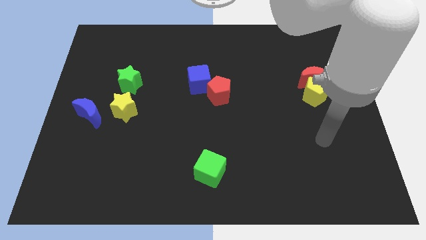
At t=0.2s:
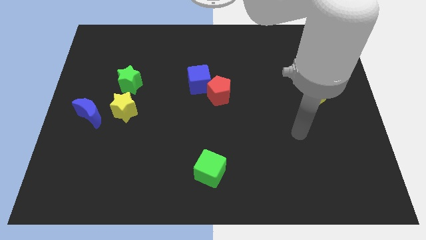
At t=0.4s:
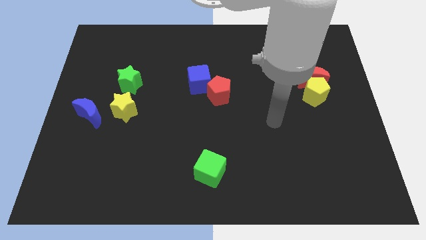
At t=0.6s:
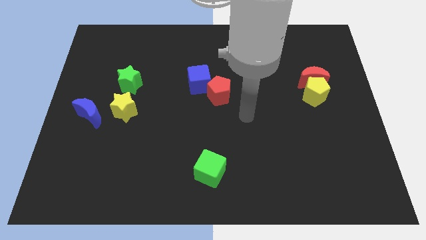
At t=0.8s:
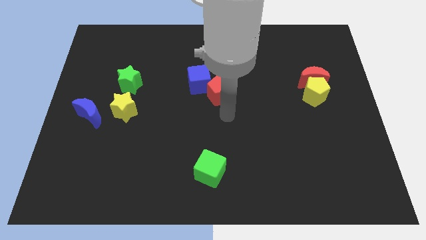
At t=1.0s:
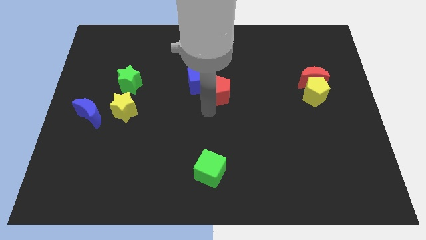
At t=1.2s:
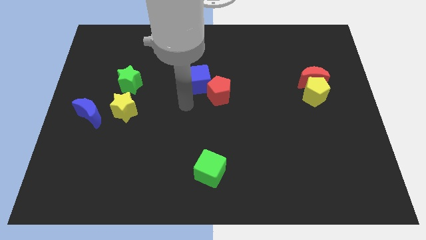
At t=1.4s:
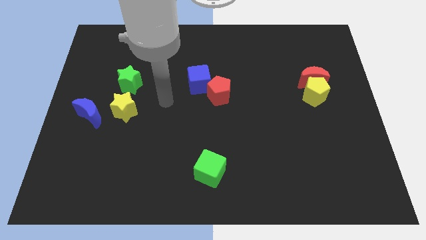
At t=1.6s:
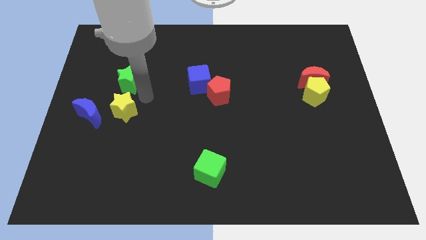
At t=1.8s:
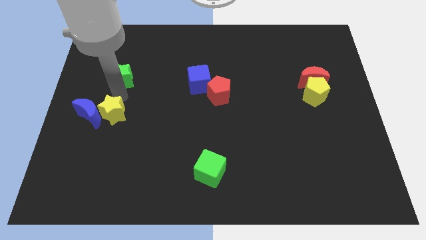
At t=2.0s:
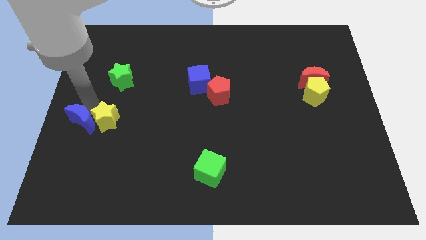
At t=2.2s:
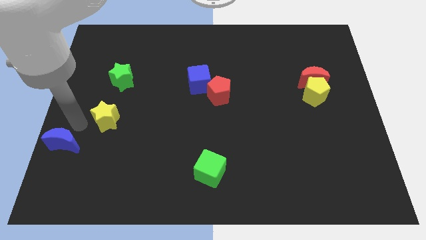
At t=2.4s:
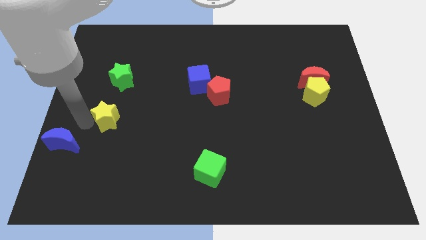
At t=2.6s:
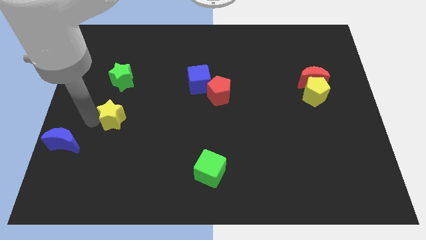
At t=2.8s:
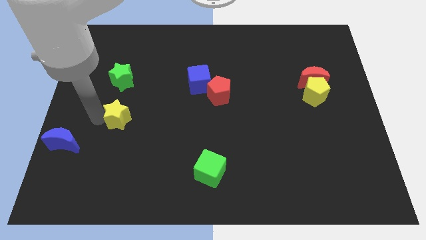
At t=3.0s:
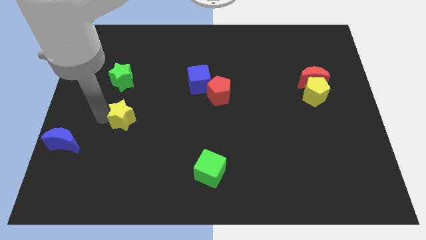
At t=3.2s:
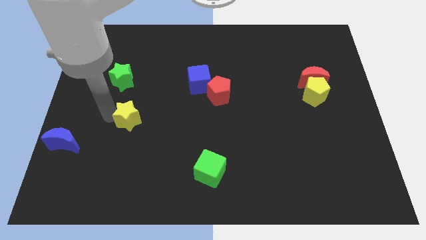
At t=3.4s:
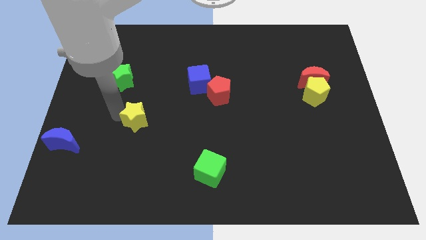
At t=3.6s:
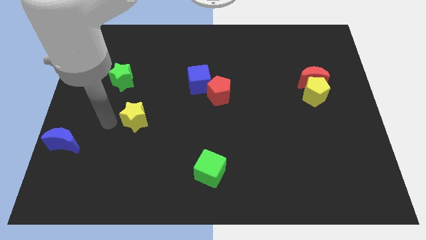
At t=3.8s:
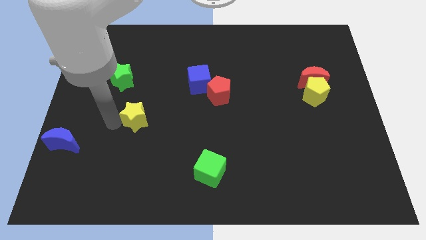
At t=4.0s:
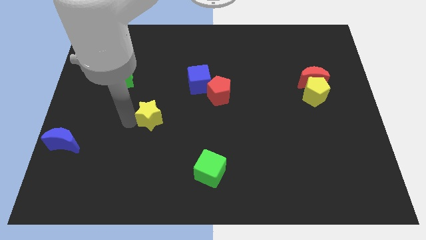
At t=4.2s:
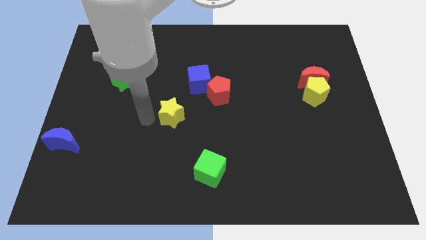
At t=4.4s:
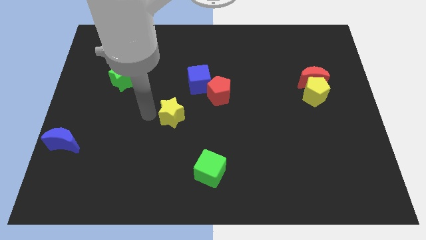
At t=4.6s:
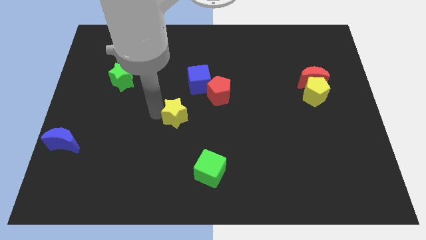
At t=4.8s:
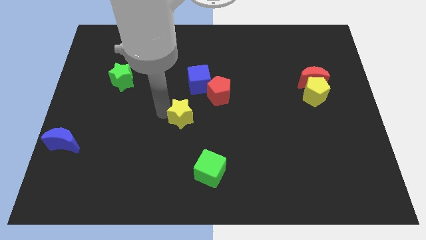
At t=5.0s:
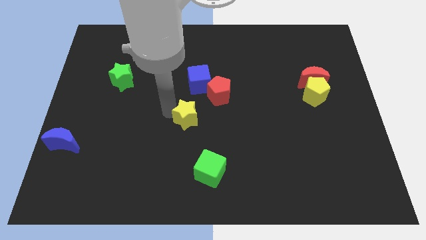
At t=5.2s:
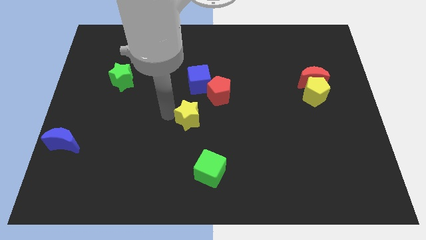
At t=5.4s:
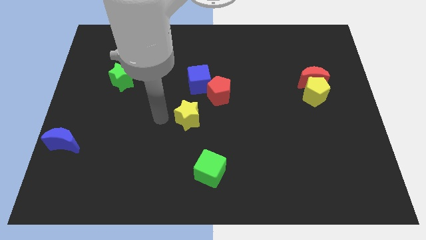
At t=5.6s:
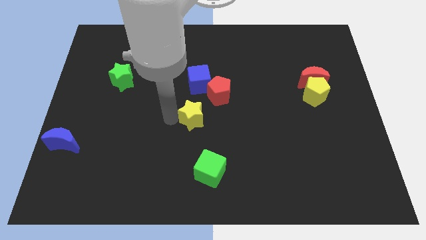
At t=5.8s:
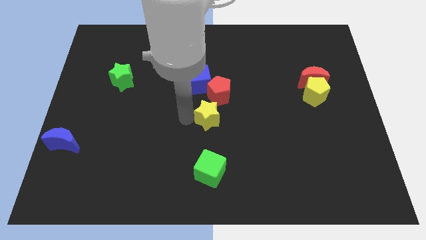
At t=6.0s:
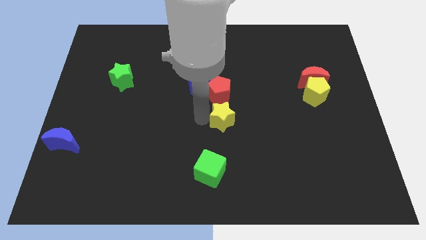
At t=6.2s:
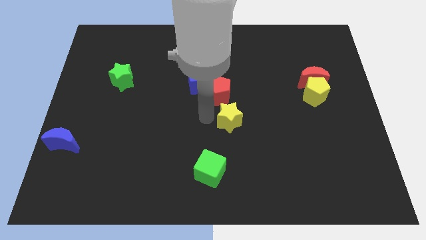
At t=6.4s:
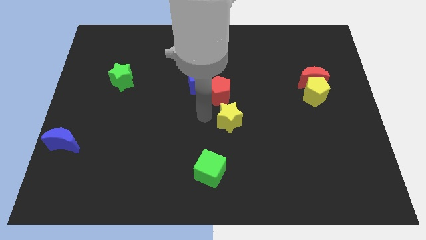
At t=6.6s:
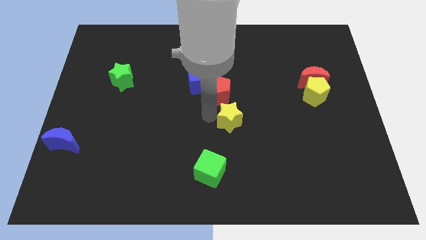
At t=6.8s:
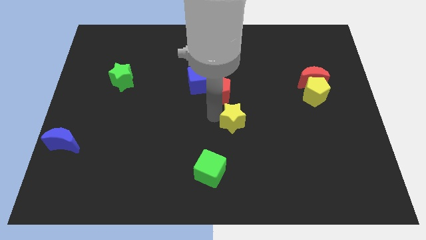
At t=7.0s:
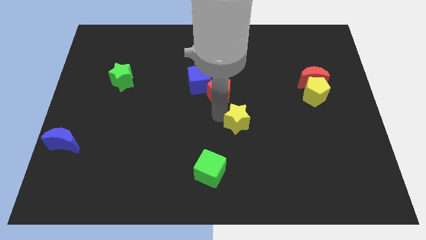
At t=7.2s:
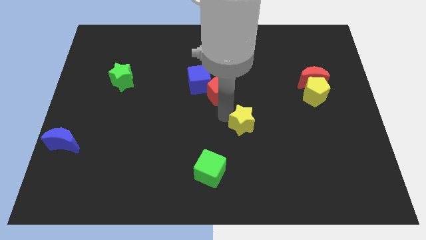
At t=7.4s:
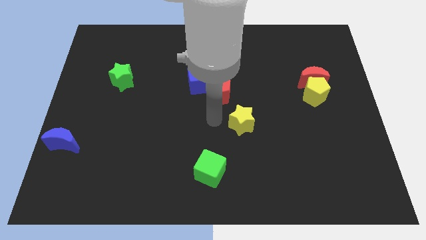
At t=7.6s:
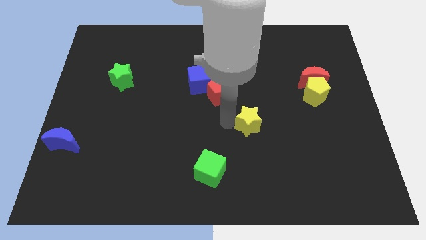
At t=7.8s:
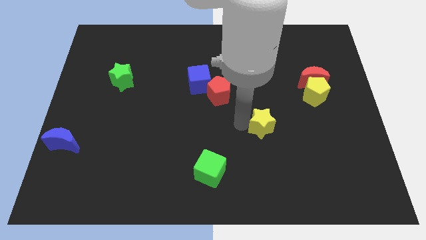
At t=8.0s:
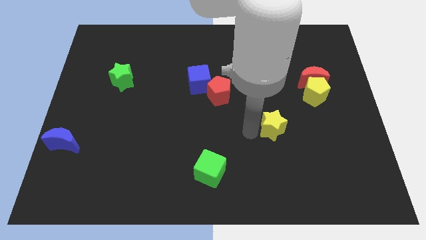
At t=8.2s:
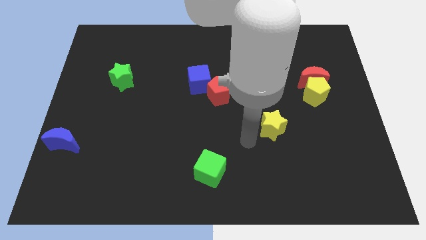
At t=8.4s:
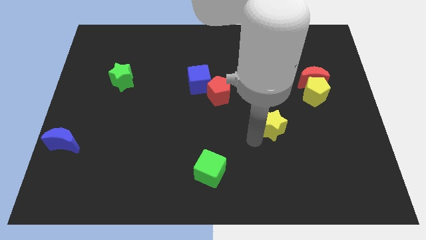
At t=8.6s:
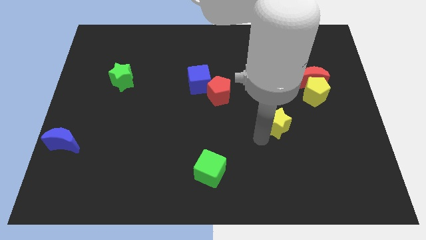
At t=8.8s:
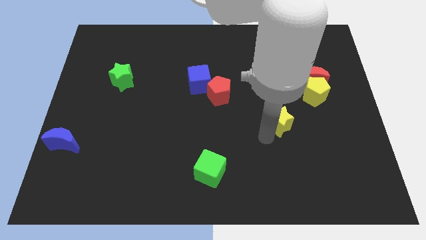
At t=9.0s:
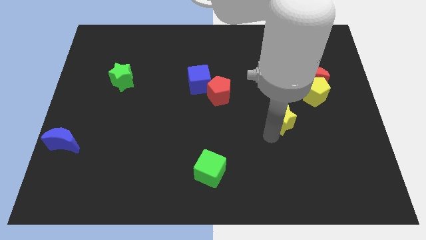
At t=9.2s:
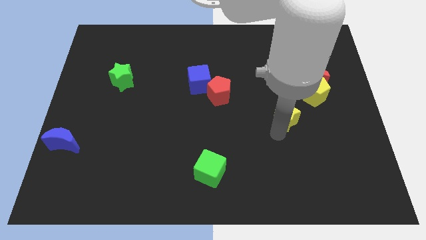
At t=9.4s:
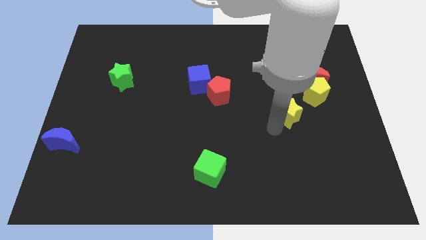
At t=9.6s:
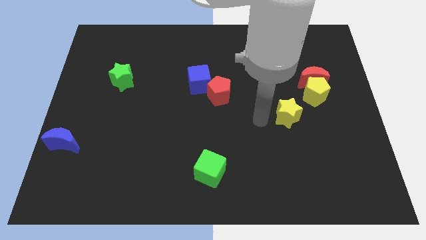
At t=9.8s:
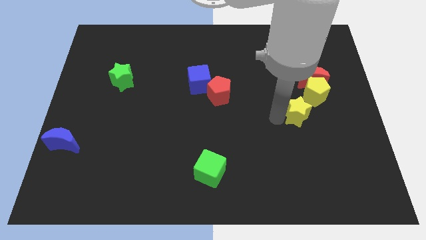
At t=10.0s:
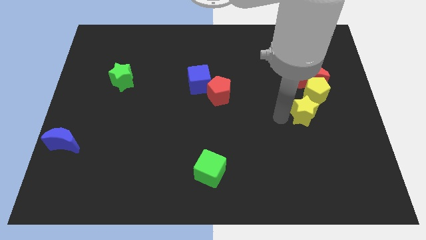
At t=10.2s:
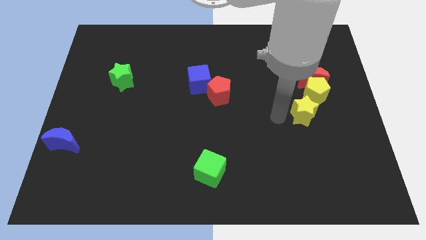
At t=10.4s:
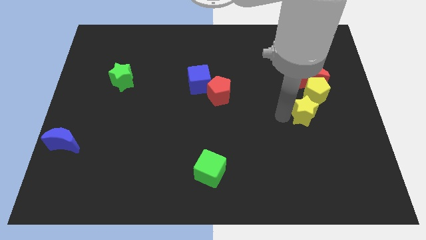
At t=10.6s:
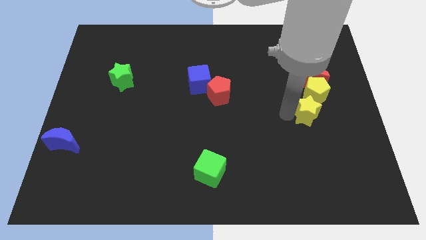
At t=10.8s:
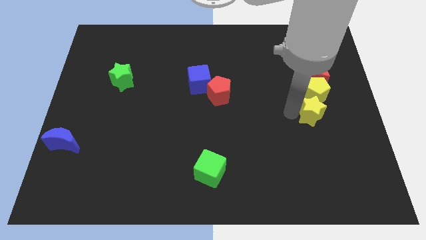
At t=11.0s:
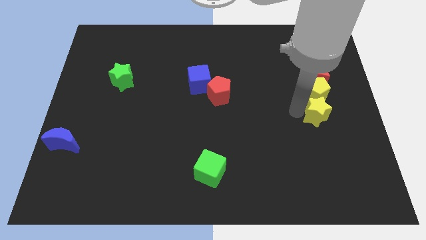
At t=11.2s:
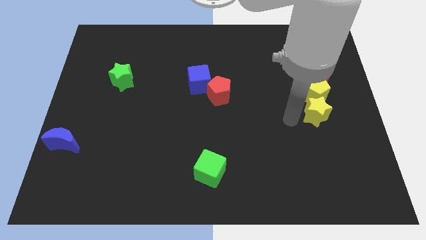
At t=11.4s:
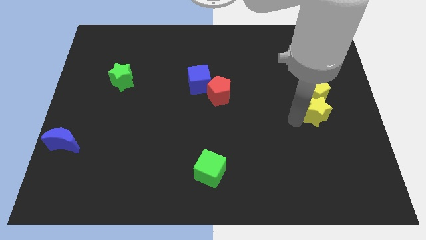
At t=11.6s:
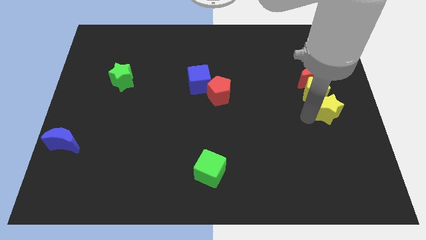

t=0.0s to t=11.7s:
slide the yellow star to the center right

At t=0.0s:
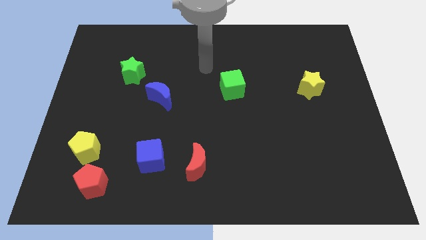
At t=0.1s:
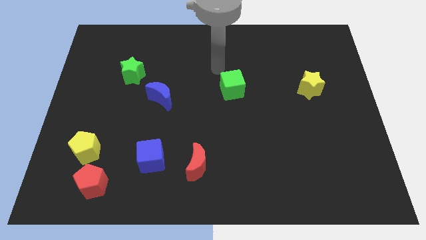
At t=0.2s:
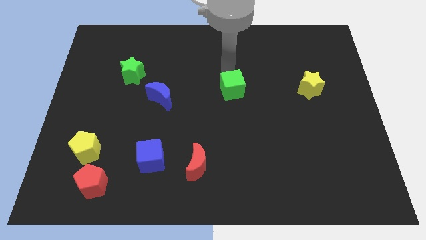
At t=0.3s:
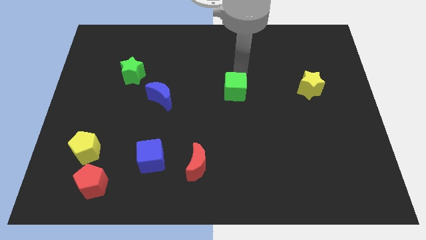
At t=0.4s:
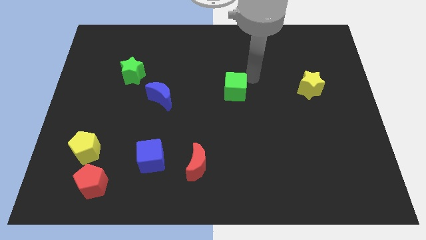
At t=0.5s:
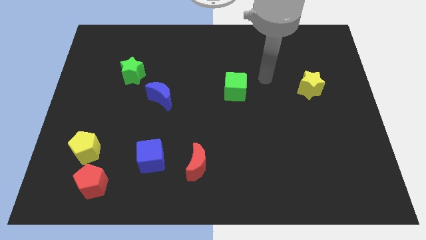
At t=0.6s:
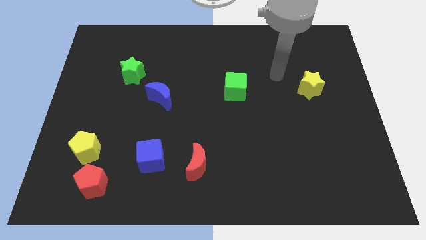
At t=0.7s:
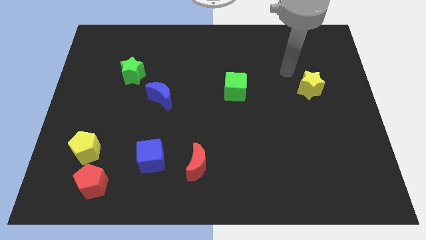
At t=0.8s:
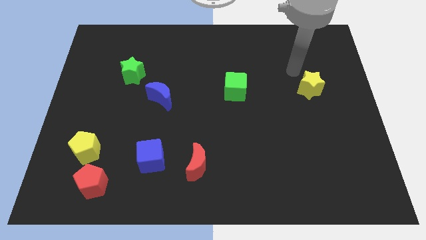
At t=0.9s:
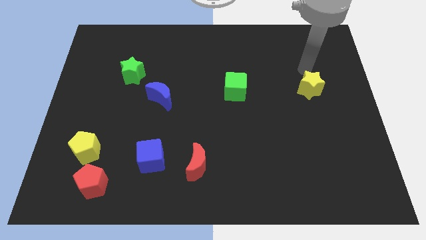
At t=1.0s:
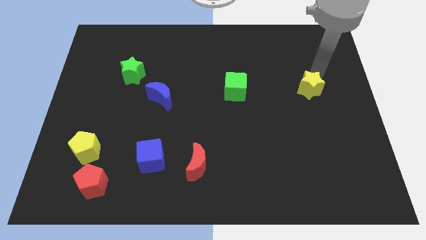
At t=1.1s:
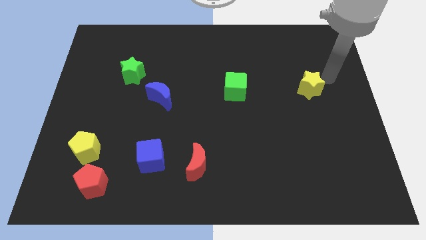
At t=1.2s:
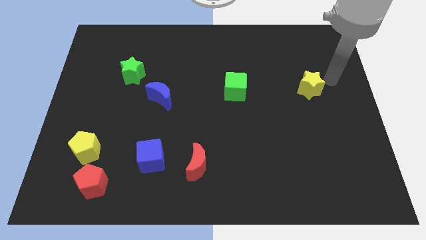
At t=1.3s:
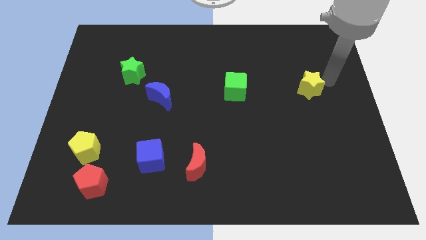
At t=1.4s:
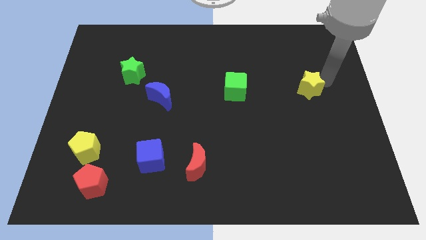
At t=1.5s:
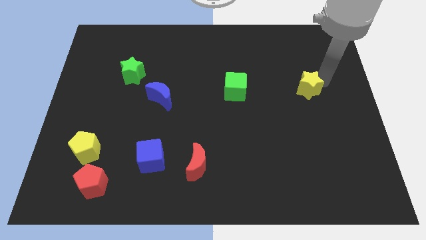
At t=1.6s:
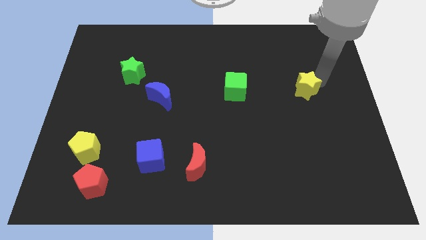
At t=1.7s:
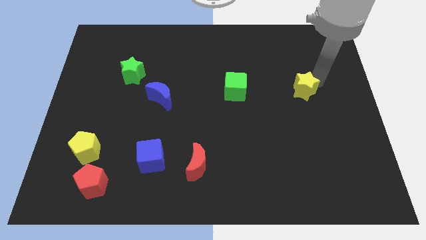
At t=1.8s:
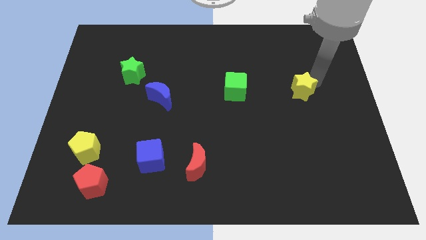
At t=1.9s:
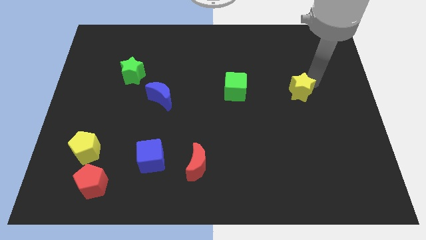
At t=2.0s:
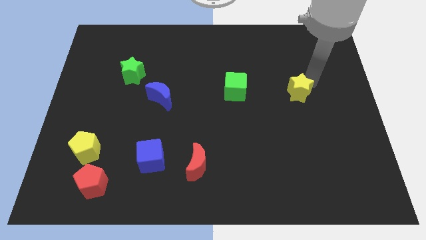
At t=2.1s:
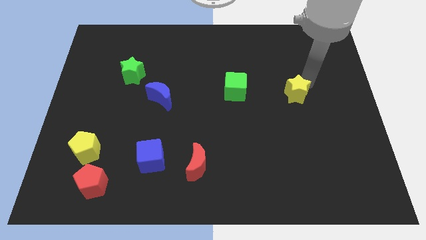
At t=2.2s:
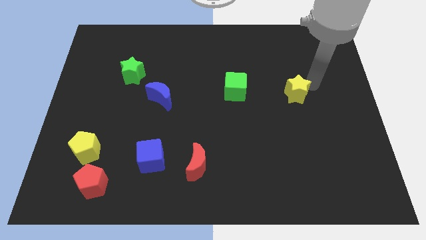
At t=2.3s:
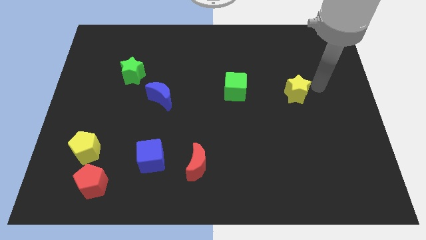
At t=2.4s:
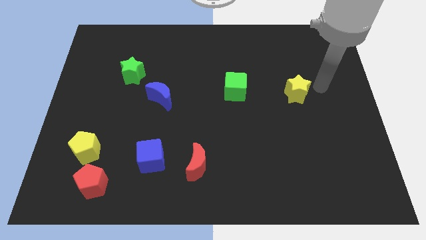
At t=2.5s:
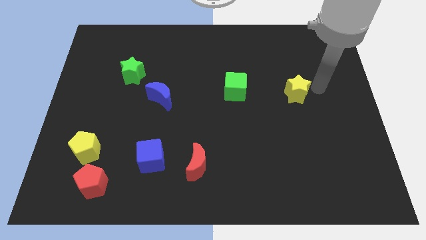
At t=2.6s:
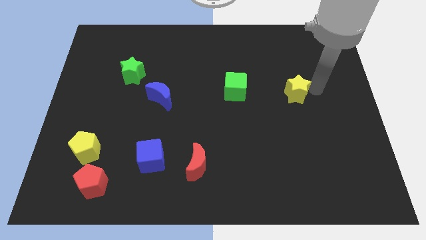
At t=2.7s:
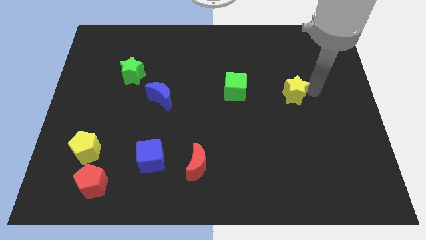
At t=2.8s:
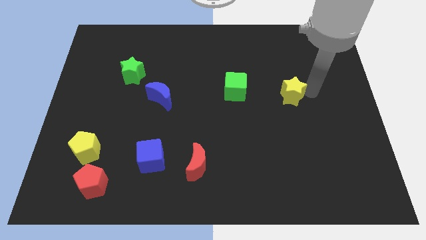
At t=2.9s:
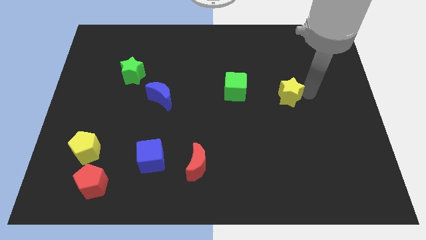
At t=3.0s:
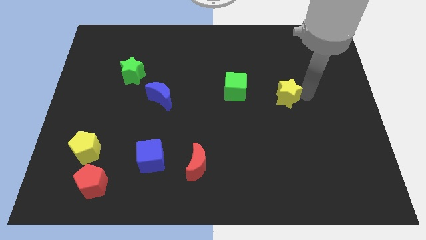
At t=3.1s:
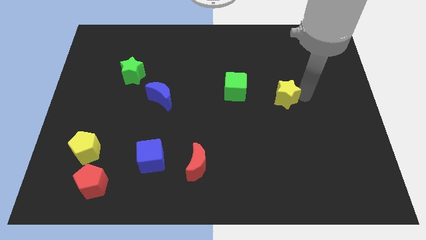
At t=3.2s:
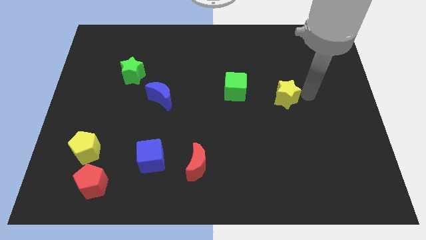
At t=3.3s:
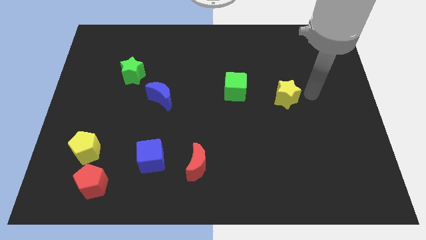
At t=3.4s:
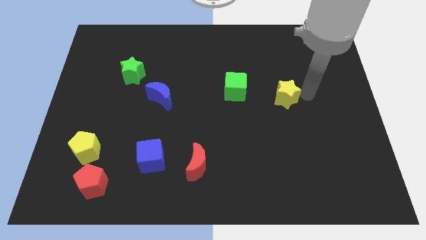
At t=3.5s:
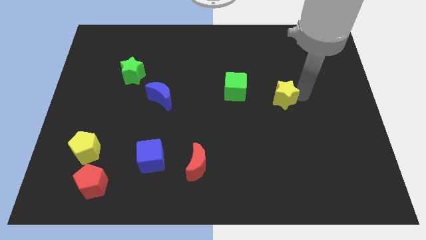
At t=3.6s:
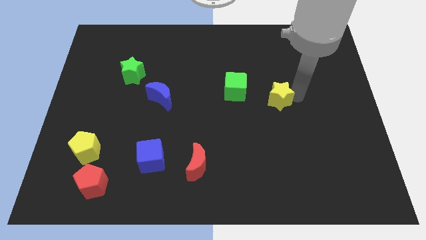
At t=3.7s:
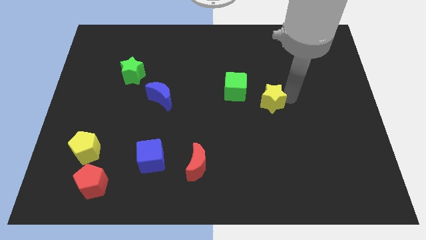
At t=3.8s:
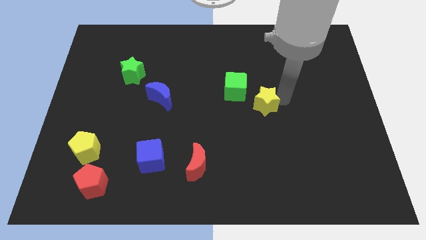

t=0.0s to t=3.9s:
move the yellow star to the center
